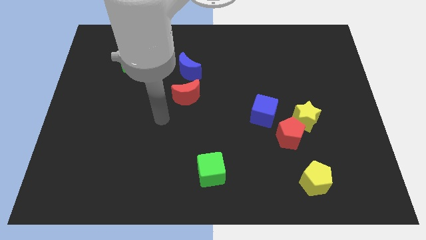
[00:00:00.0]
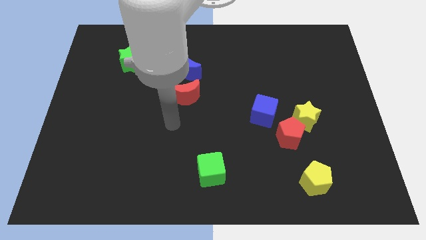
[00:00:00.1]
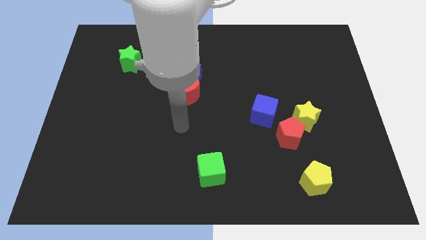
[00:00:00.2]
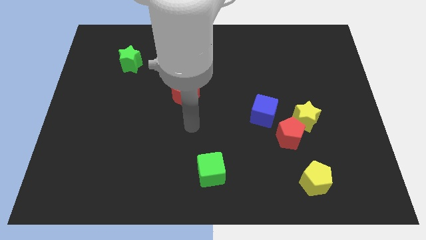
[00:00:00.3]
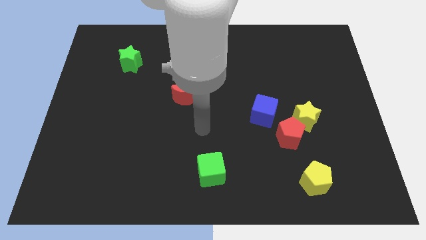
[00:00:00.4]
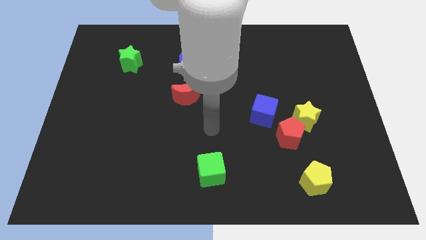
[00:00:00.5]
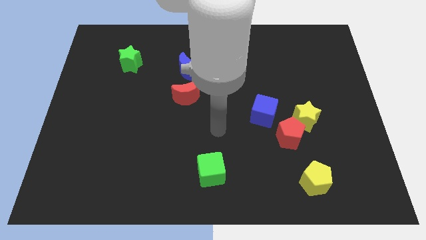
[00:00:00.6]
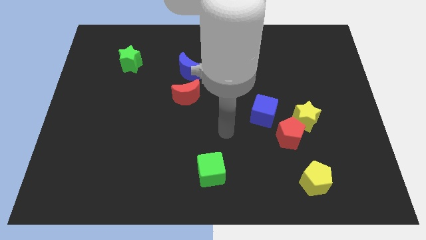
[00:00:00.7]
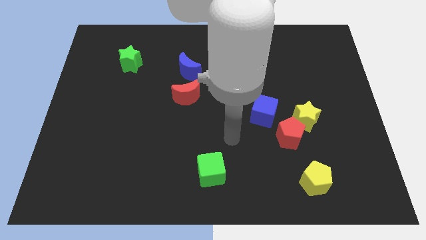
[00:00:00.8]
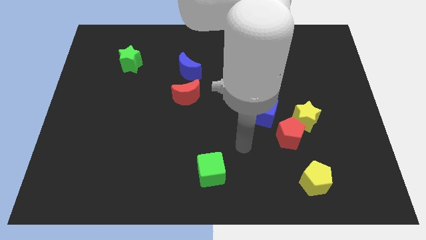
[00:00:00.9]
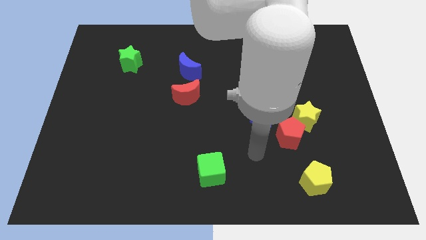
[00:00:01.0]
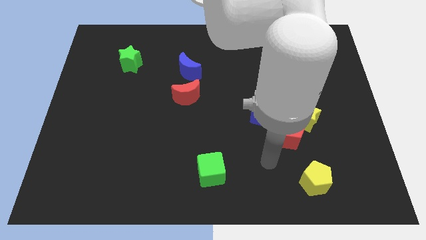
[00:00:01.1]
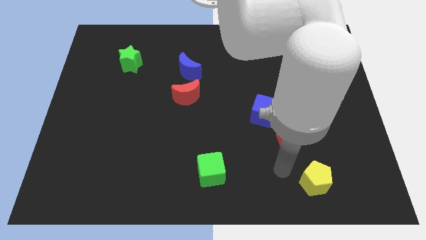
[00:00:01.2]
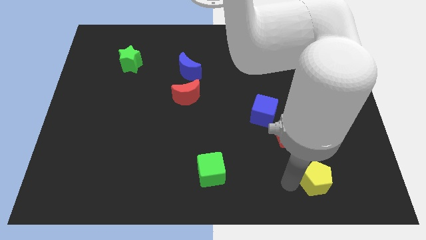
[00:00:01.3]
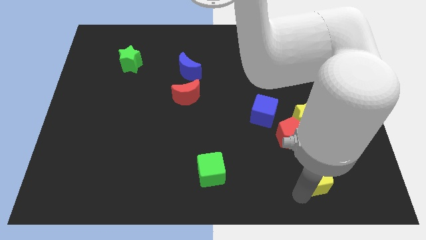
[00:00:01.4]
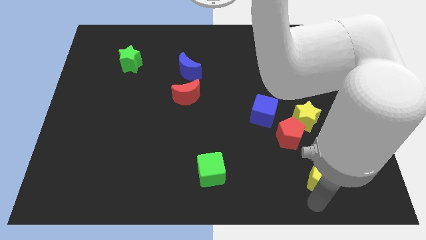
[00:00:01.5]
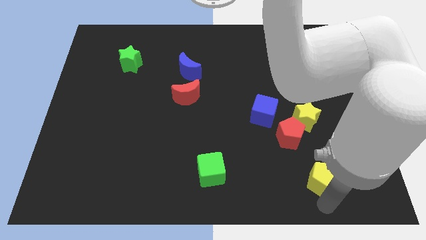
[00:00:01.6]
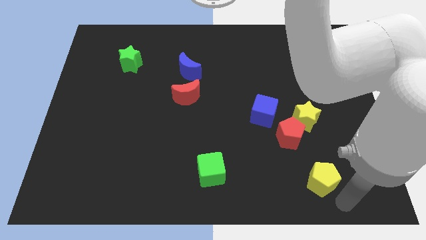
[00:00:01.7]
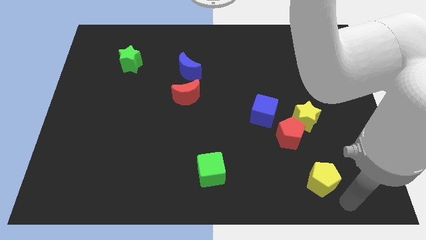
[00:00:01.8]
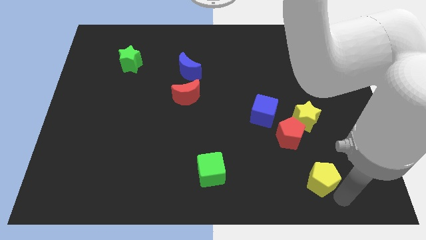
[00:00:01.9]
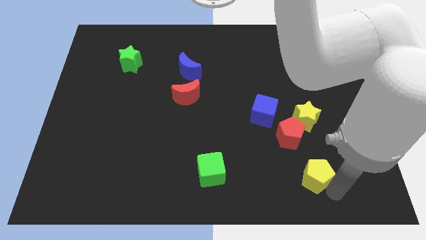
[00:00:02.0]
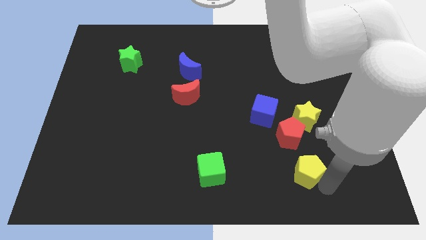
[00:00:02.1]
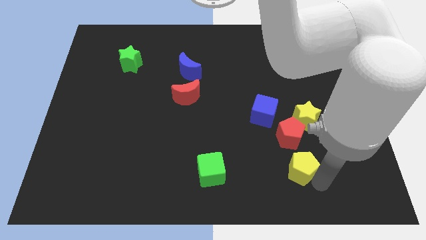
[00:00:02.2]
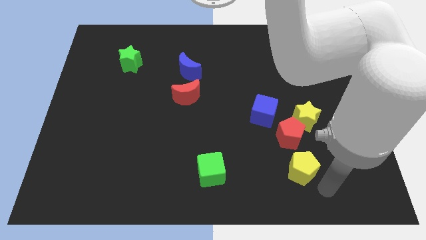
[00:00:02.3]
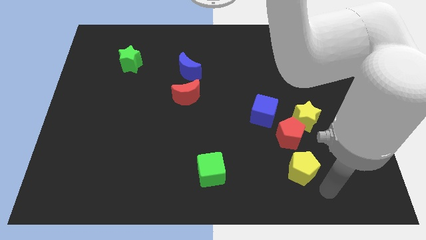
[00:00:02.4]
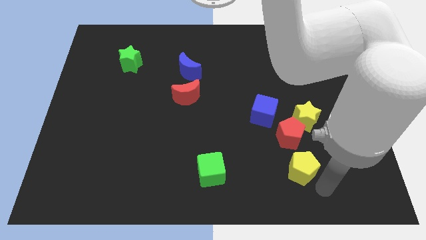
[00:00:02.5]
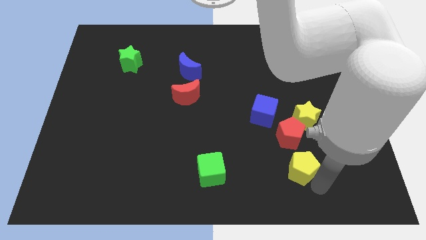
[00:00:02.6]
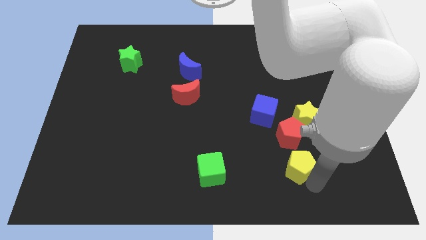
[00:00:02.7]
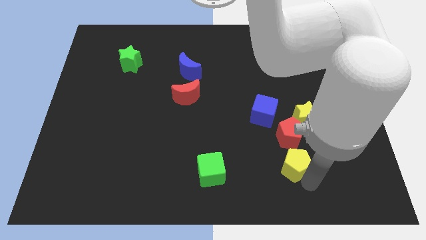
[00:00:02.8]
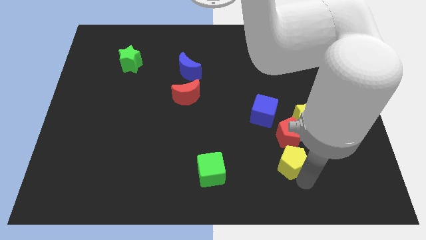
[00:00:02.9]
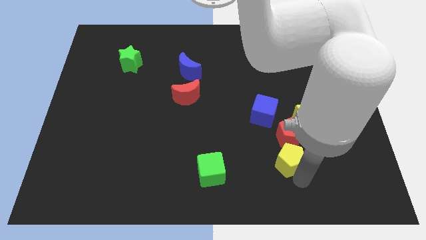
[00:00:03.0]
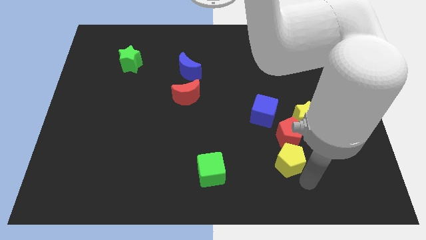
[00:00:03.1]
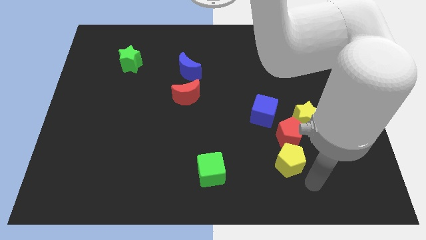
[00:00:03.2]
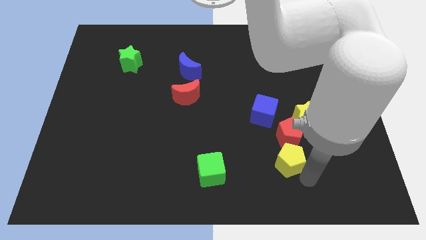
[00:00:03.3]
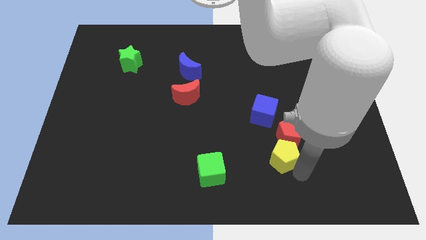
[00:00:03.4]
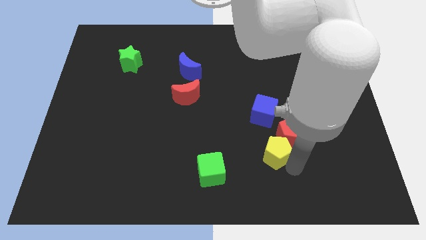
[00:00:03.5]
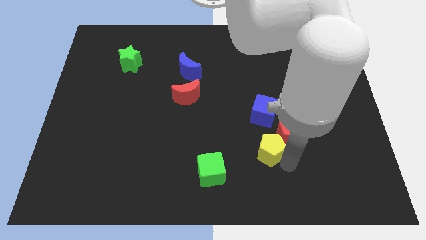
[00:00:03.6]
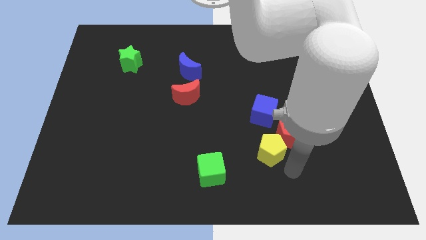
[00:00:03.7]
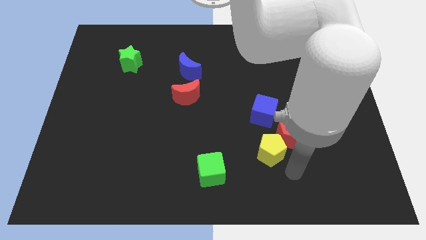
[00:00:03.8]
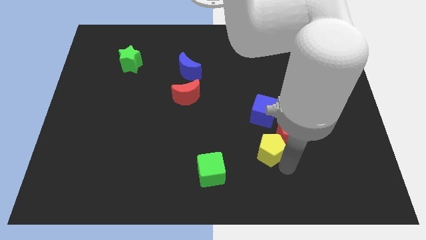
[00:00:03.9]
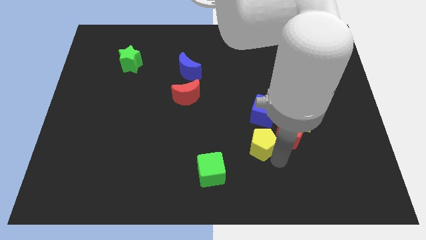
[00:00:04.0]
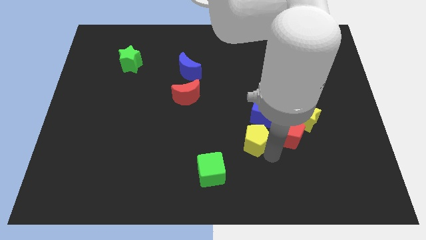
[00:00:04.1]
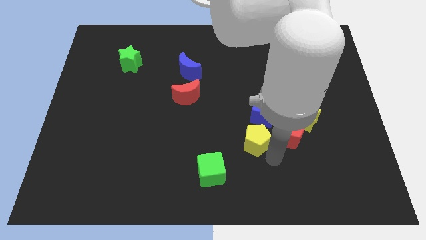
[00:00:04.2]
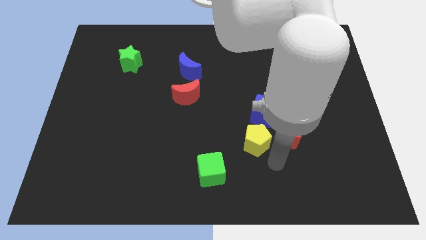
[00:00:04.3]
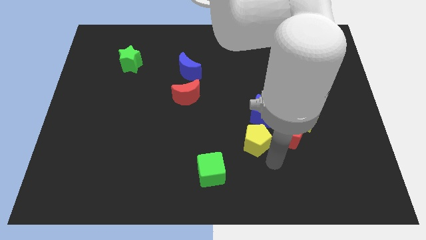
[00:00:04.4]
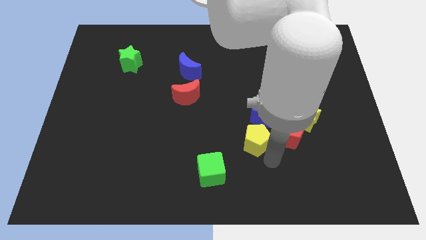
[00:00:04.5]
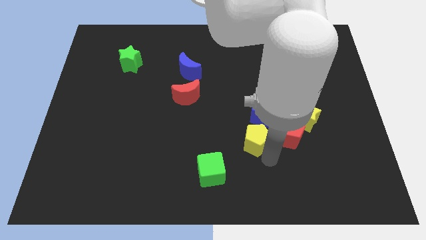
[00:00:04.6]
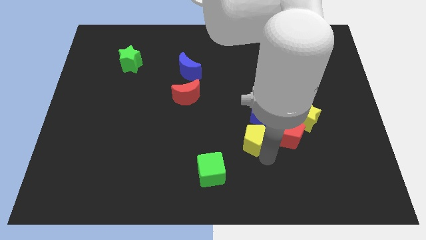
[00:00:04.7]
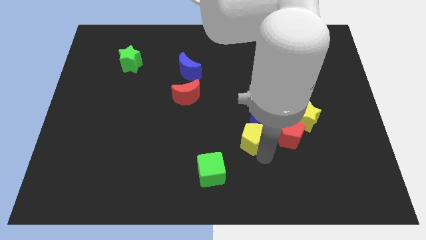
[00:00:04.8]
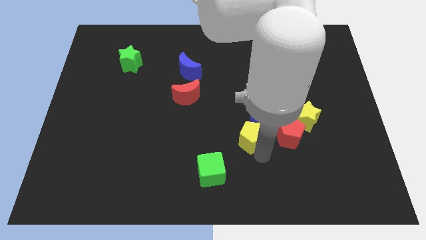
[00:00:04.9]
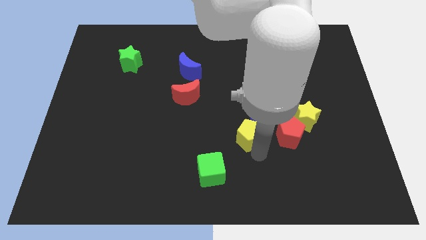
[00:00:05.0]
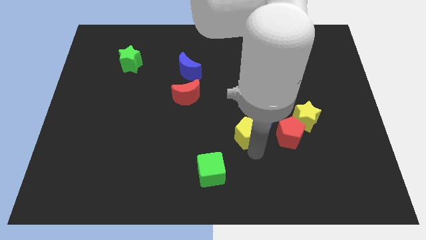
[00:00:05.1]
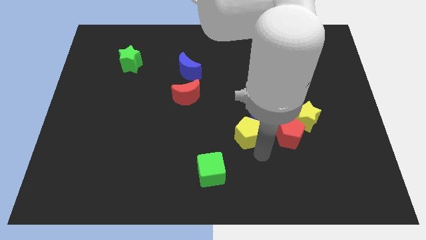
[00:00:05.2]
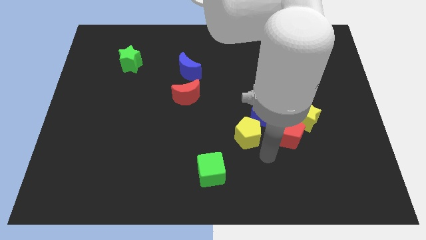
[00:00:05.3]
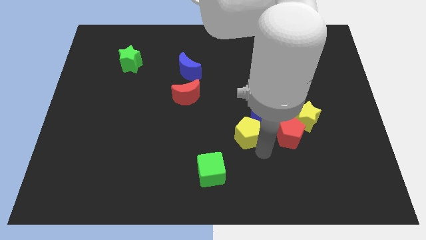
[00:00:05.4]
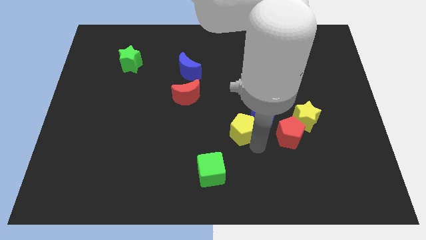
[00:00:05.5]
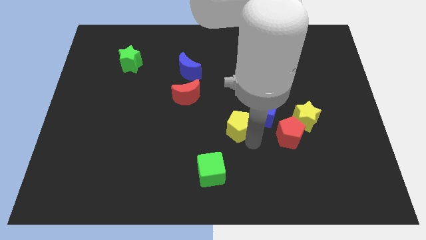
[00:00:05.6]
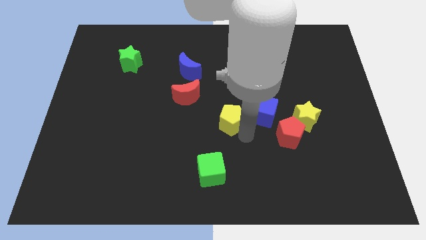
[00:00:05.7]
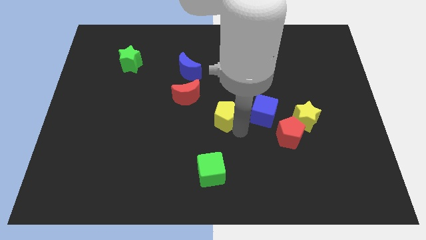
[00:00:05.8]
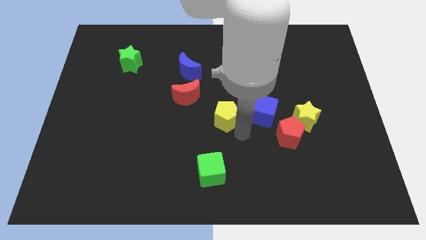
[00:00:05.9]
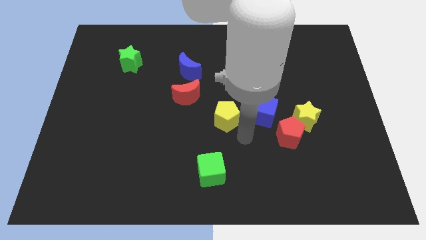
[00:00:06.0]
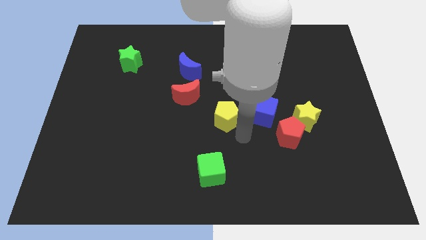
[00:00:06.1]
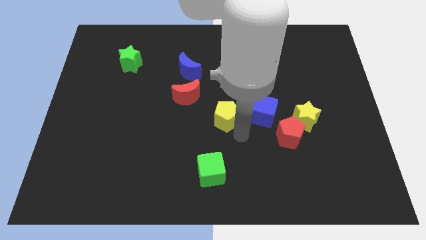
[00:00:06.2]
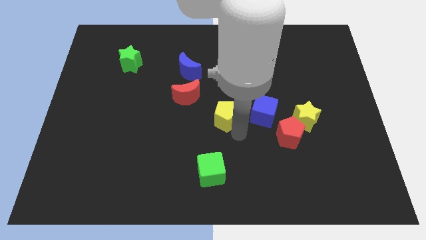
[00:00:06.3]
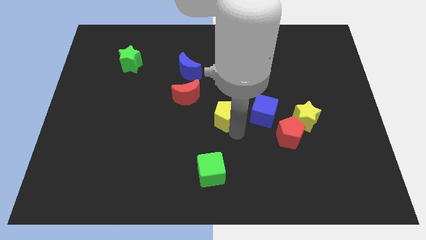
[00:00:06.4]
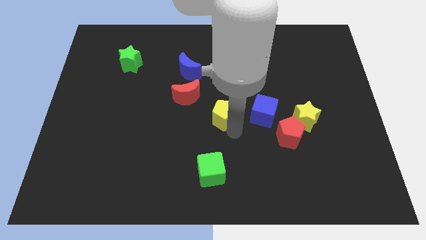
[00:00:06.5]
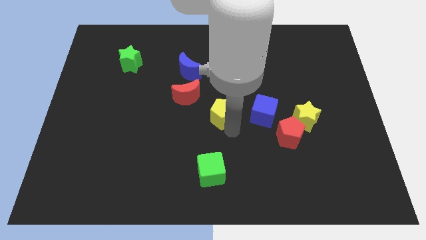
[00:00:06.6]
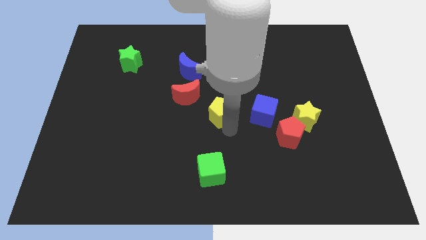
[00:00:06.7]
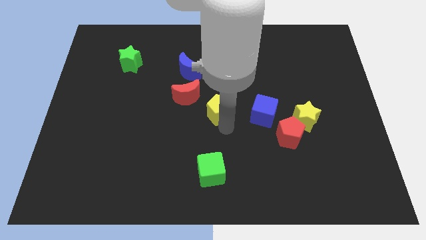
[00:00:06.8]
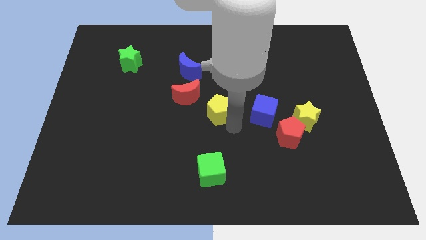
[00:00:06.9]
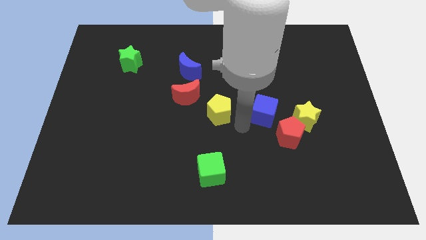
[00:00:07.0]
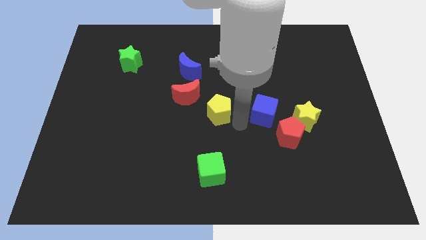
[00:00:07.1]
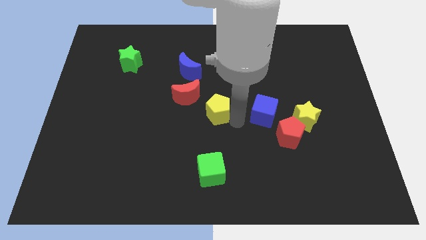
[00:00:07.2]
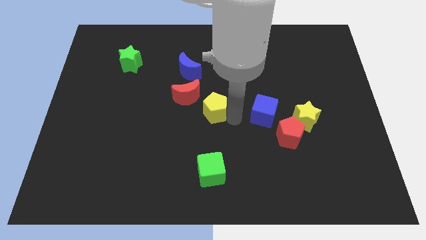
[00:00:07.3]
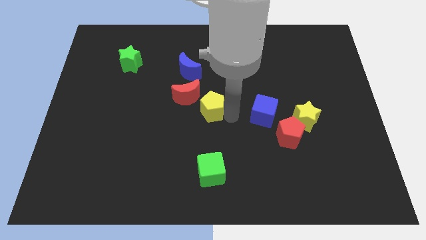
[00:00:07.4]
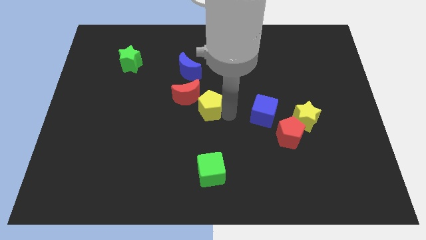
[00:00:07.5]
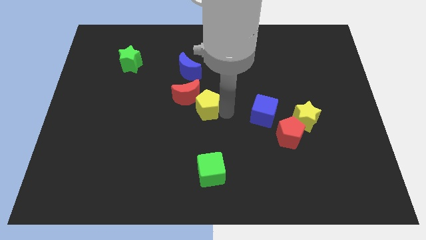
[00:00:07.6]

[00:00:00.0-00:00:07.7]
push the yellow pentagon towards the red moon
